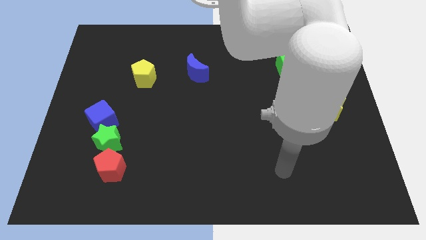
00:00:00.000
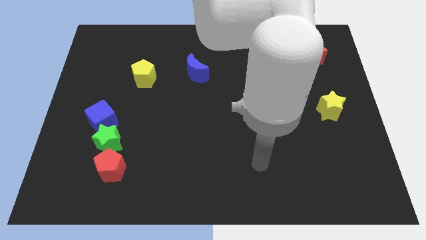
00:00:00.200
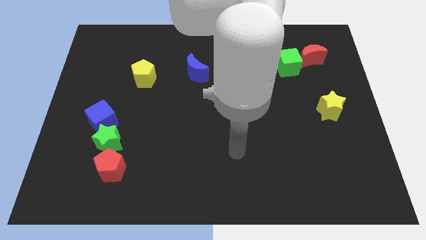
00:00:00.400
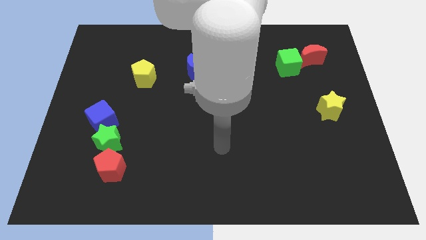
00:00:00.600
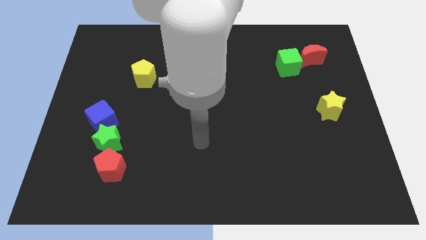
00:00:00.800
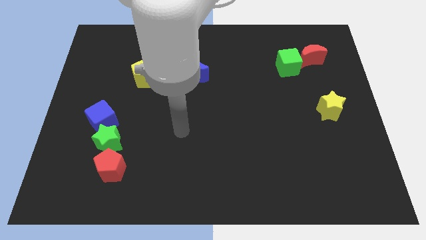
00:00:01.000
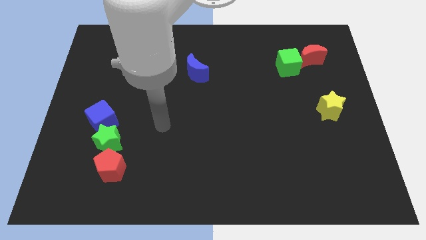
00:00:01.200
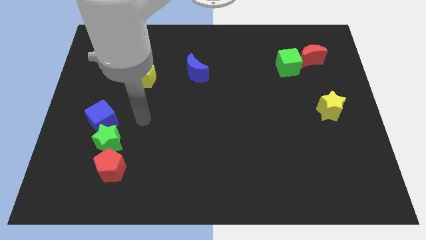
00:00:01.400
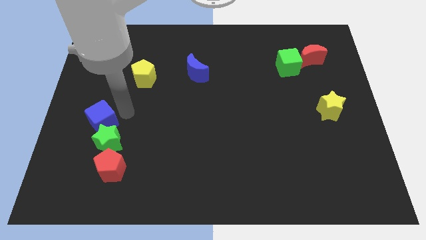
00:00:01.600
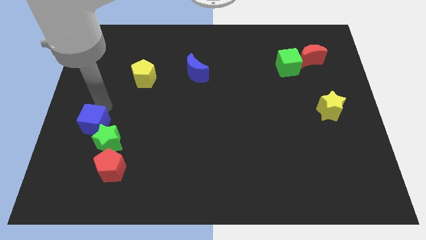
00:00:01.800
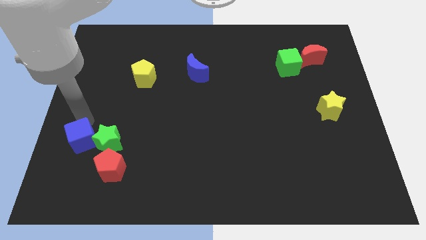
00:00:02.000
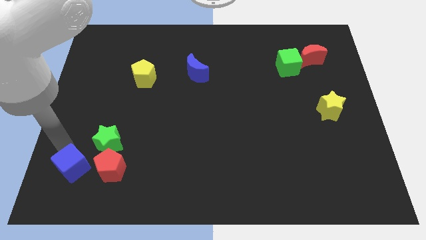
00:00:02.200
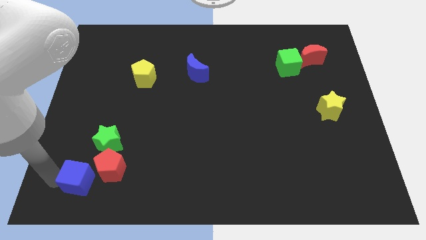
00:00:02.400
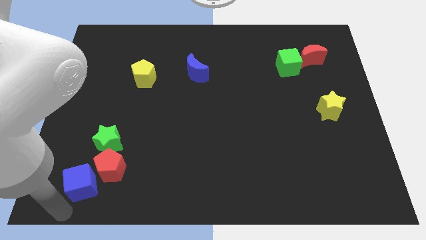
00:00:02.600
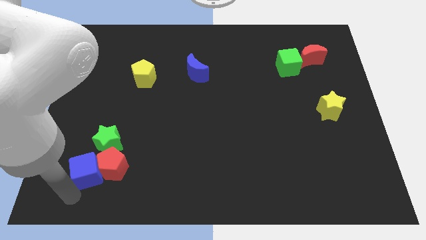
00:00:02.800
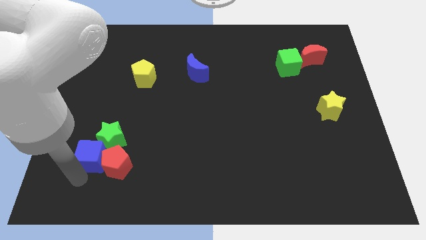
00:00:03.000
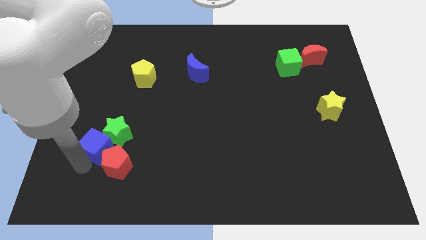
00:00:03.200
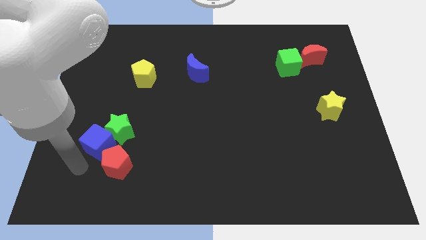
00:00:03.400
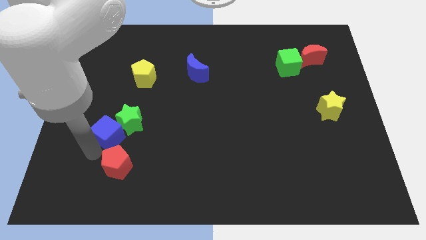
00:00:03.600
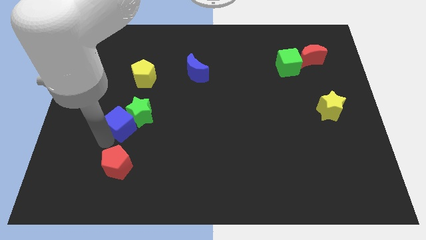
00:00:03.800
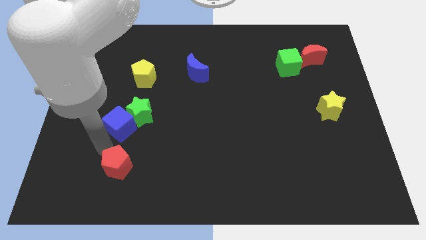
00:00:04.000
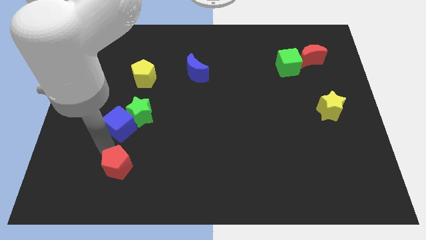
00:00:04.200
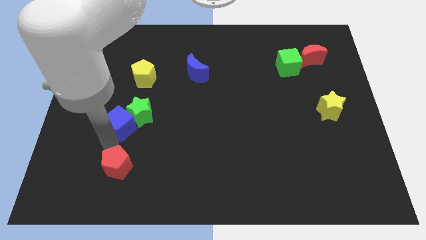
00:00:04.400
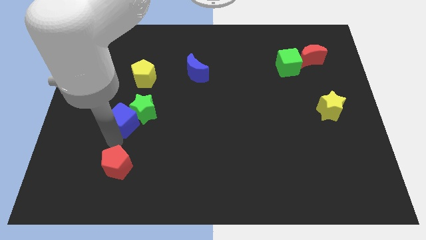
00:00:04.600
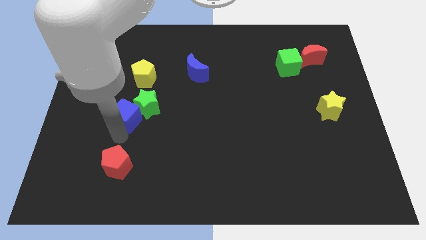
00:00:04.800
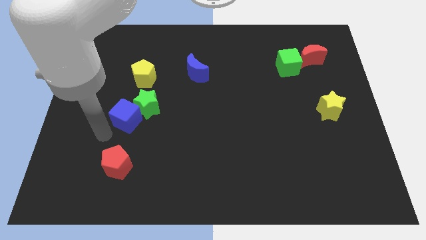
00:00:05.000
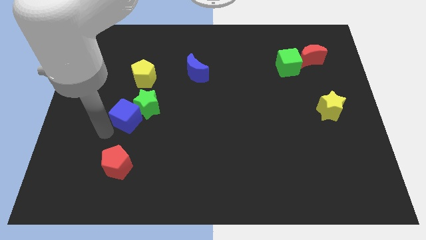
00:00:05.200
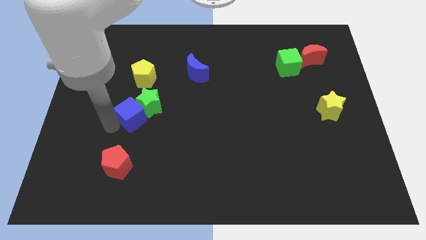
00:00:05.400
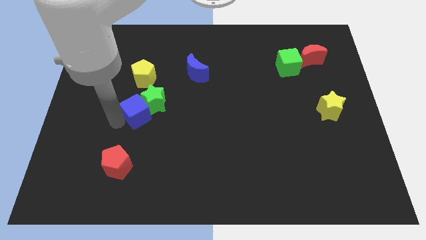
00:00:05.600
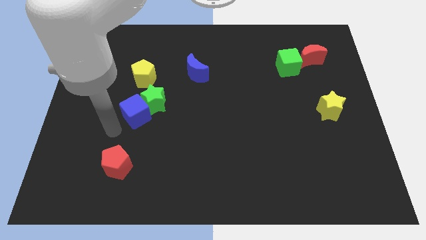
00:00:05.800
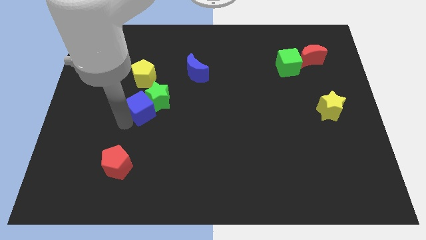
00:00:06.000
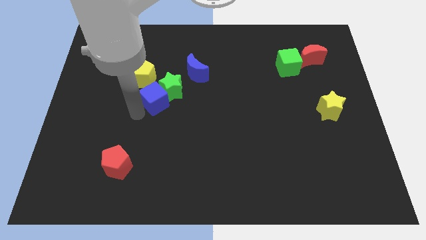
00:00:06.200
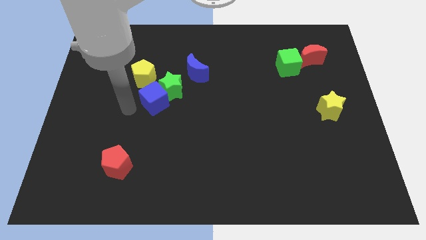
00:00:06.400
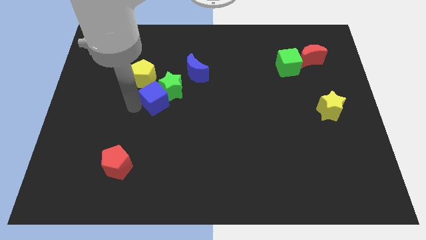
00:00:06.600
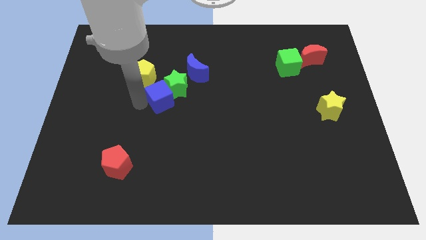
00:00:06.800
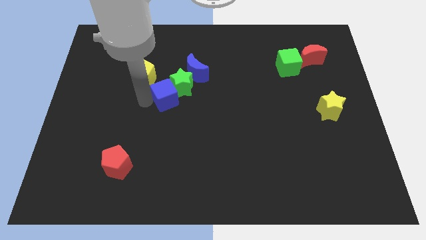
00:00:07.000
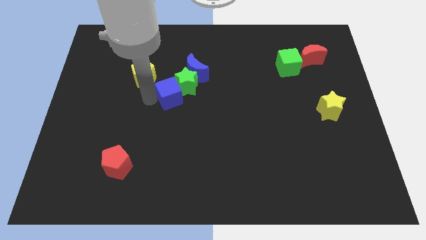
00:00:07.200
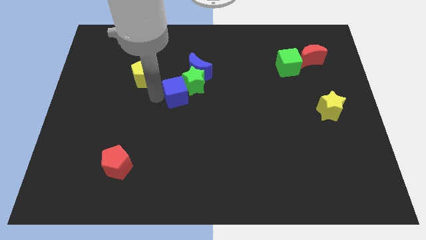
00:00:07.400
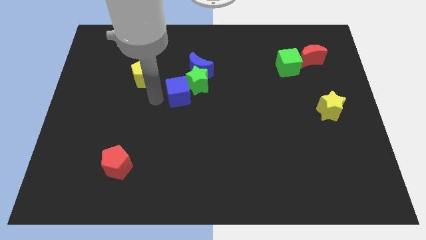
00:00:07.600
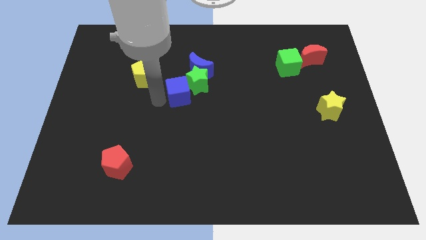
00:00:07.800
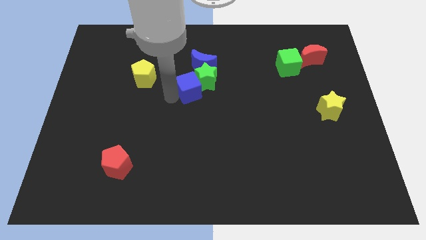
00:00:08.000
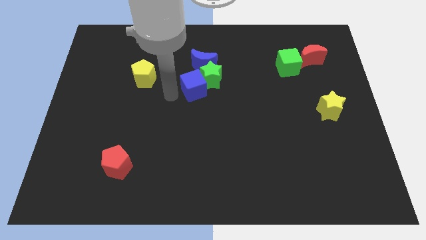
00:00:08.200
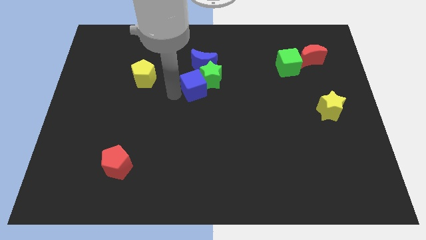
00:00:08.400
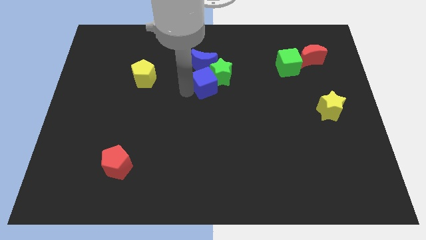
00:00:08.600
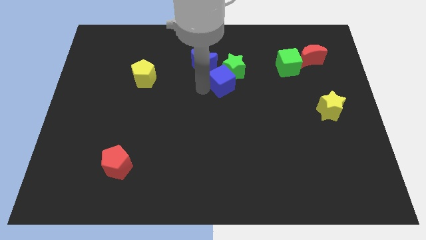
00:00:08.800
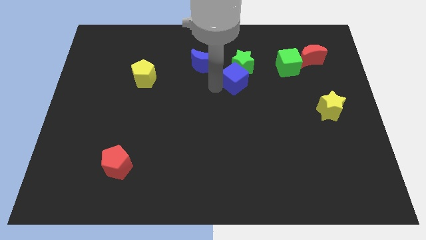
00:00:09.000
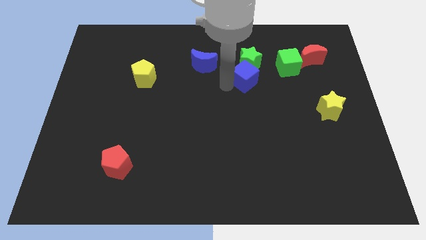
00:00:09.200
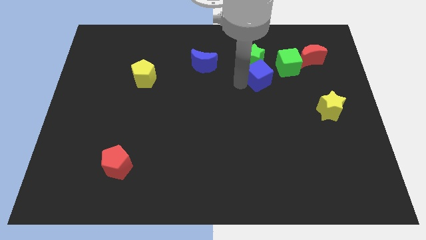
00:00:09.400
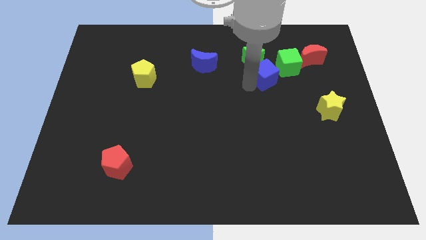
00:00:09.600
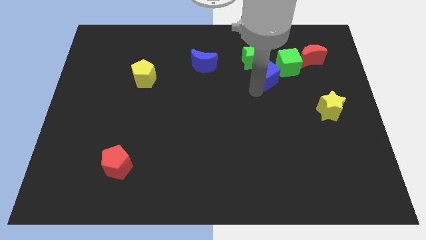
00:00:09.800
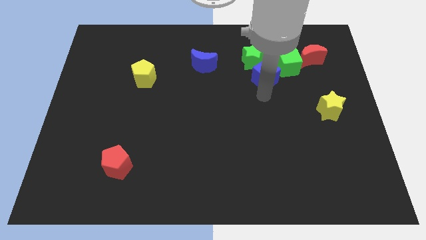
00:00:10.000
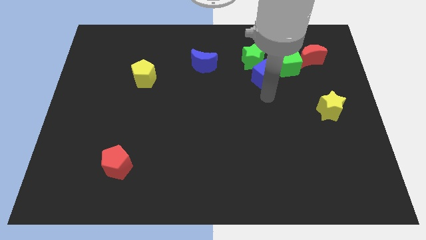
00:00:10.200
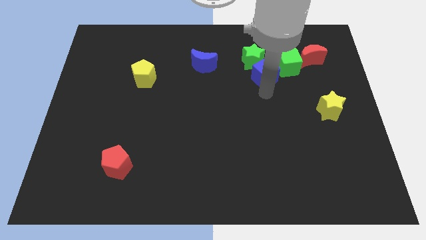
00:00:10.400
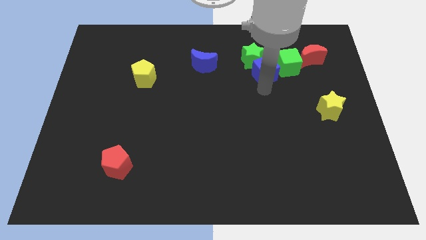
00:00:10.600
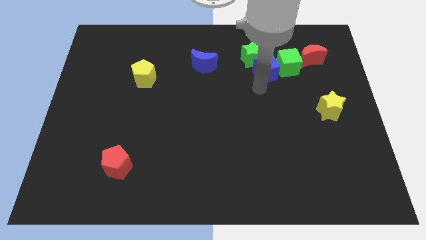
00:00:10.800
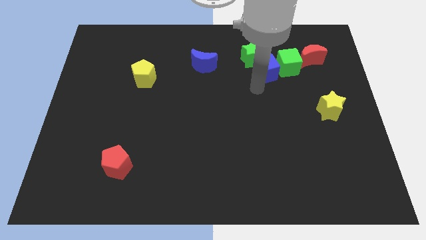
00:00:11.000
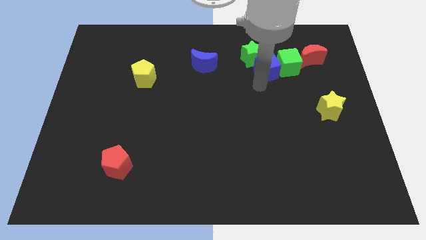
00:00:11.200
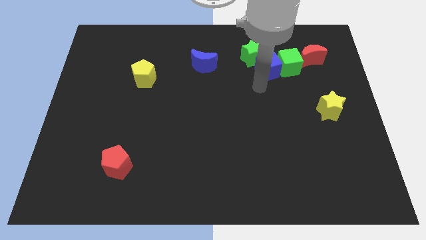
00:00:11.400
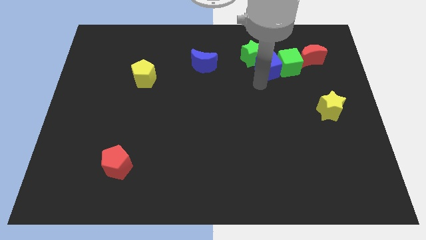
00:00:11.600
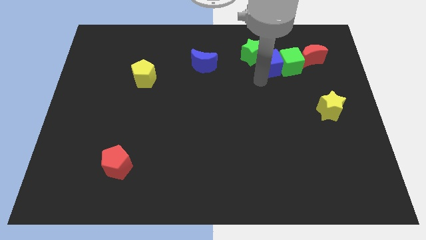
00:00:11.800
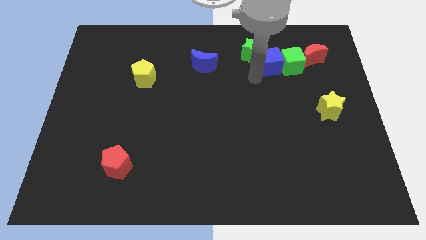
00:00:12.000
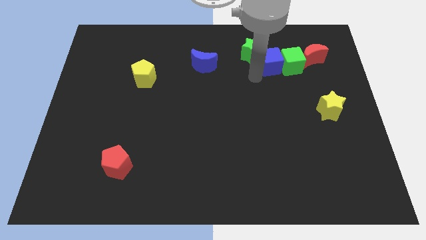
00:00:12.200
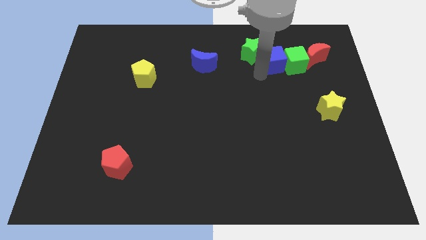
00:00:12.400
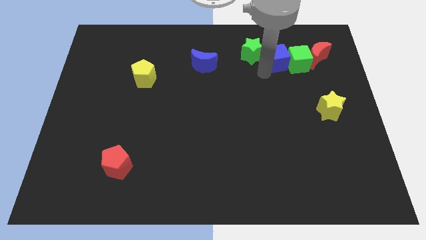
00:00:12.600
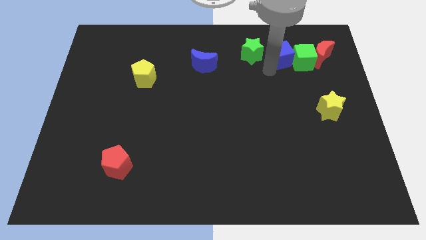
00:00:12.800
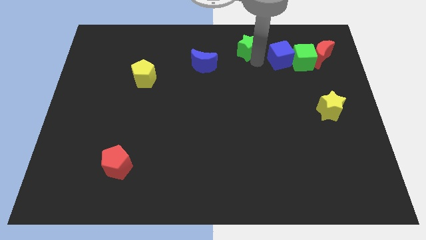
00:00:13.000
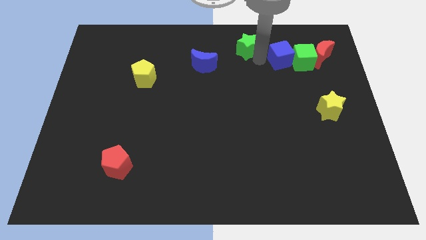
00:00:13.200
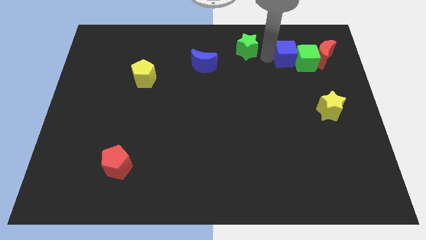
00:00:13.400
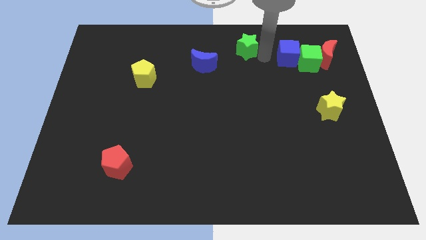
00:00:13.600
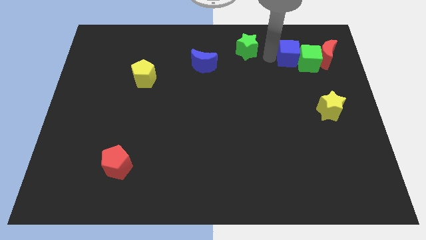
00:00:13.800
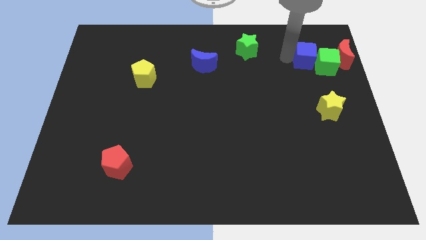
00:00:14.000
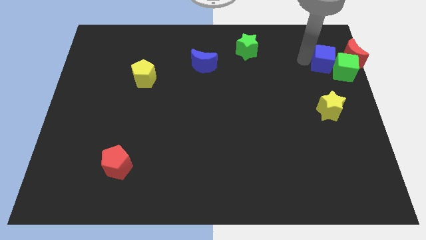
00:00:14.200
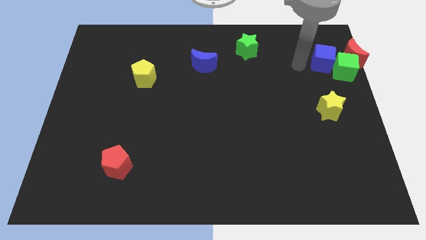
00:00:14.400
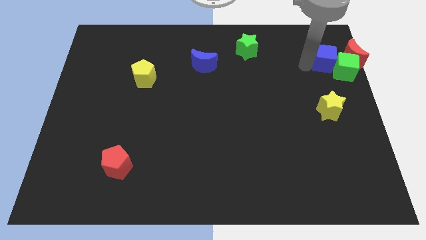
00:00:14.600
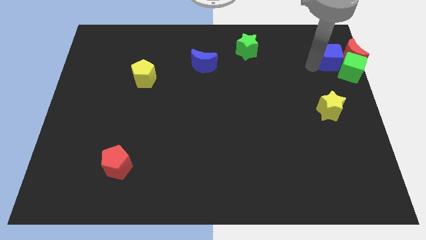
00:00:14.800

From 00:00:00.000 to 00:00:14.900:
slide the blue cube close to the red moon

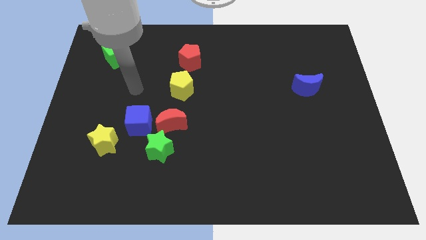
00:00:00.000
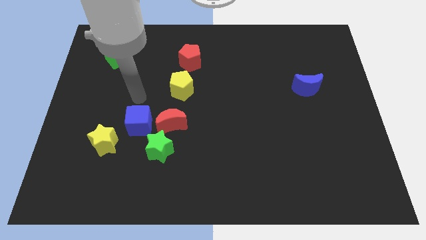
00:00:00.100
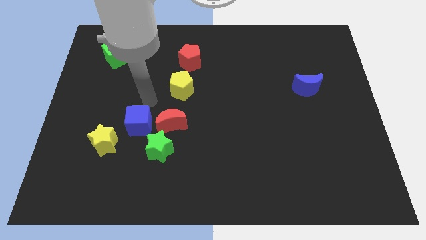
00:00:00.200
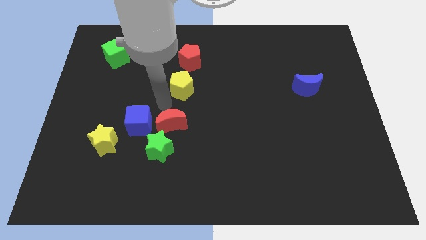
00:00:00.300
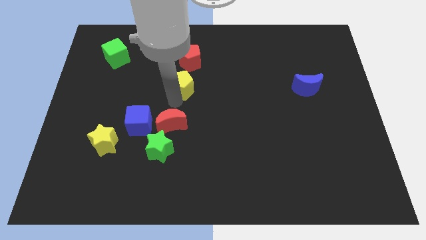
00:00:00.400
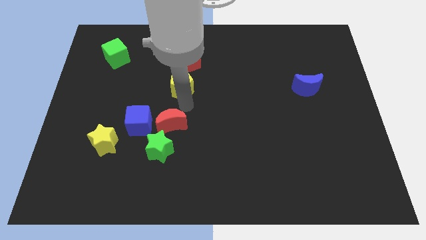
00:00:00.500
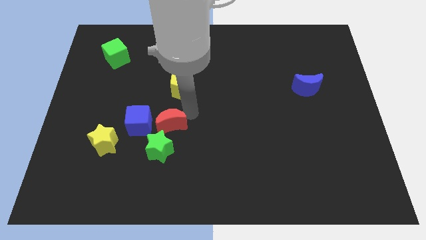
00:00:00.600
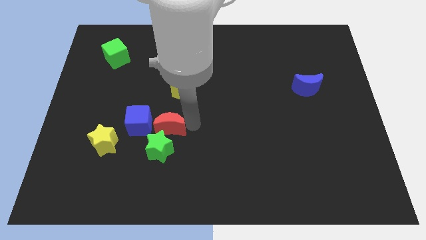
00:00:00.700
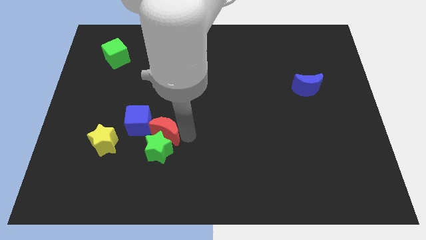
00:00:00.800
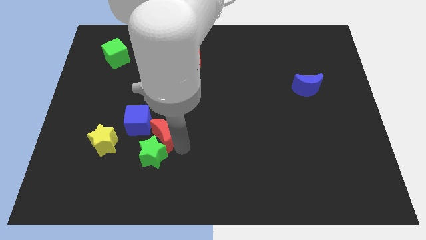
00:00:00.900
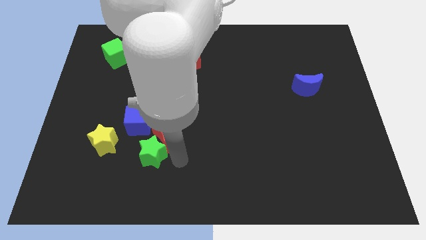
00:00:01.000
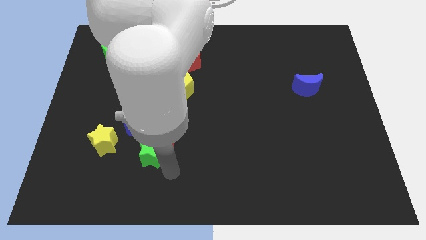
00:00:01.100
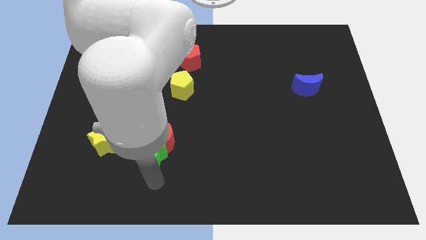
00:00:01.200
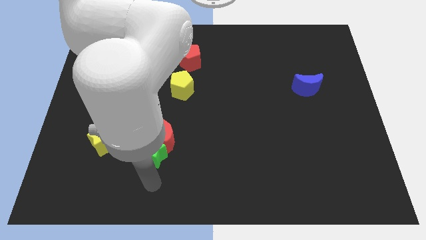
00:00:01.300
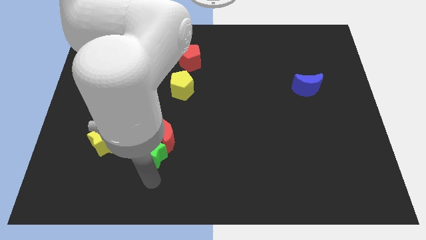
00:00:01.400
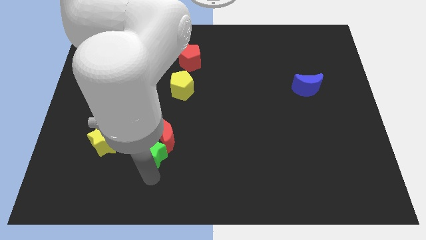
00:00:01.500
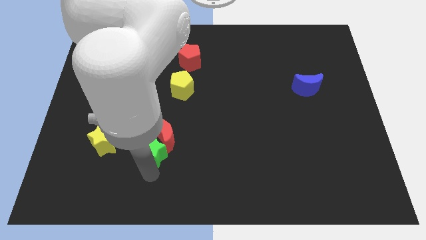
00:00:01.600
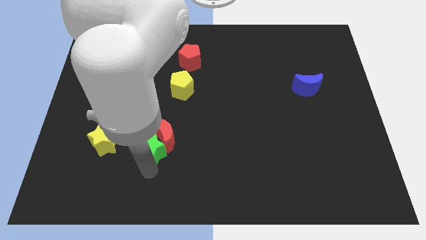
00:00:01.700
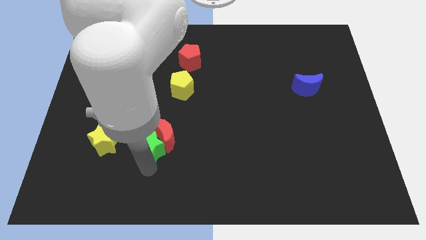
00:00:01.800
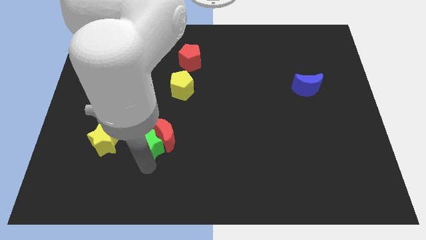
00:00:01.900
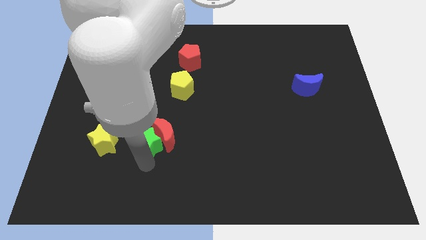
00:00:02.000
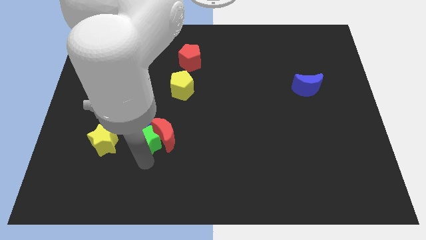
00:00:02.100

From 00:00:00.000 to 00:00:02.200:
push the green star to the blue cube
